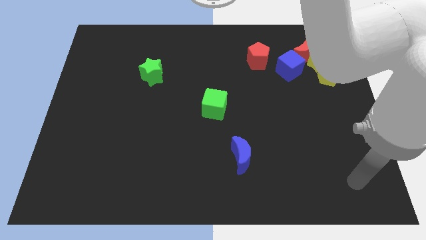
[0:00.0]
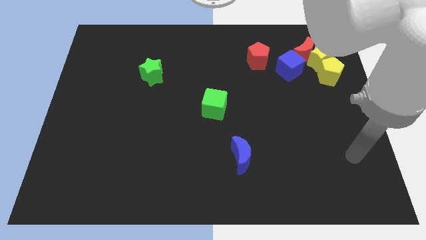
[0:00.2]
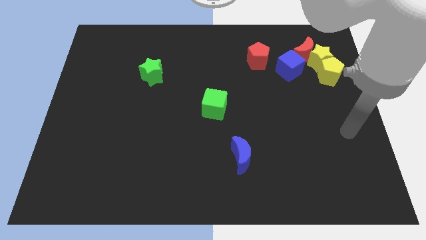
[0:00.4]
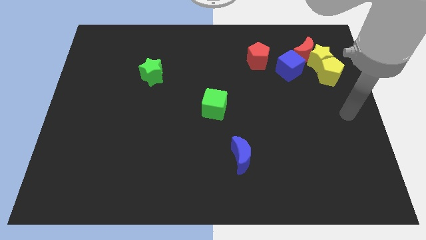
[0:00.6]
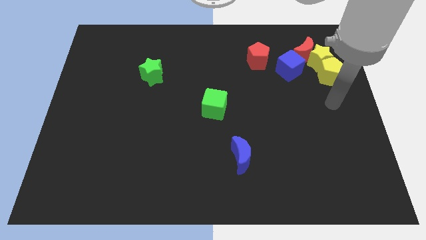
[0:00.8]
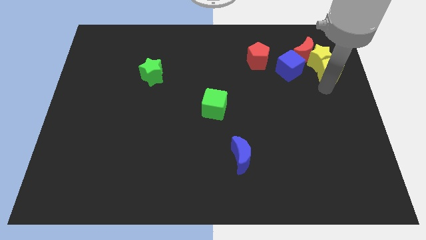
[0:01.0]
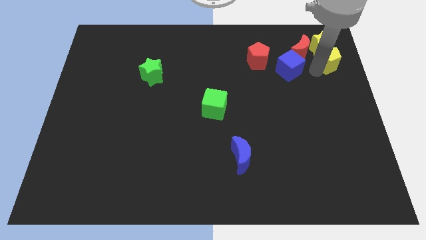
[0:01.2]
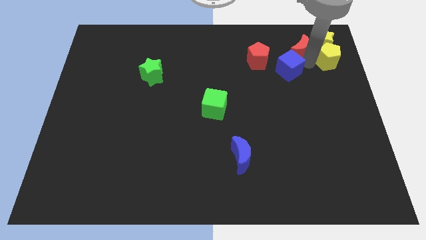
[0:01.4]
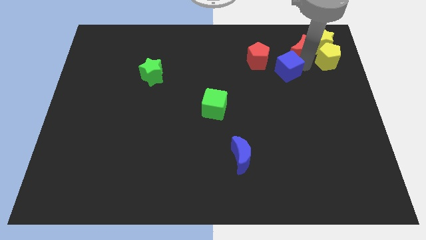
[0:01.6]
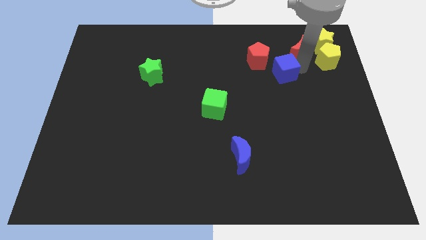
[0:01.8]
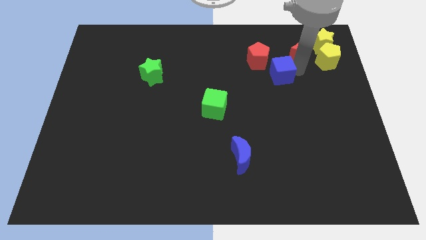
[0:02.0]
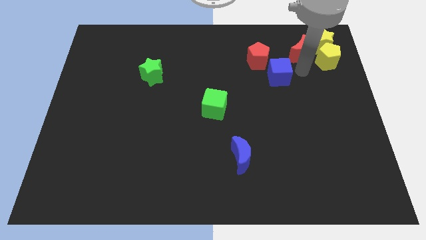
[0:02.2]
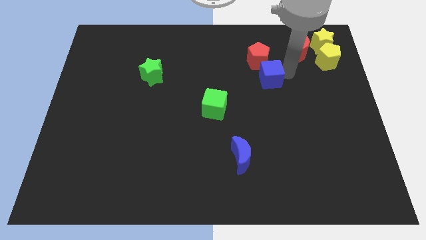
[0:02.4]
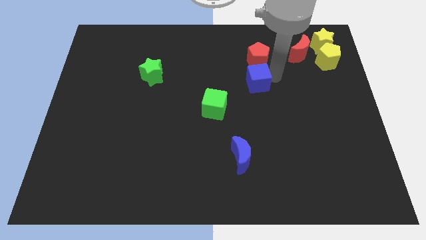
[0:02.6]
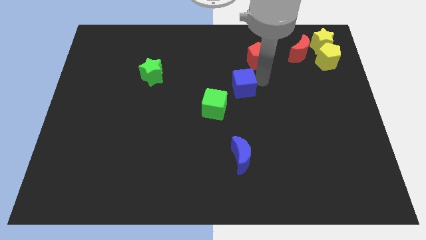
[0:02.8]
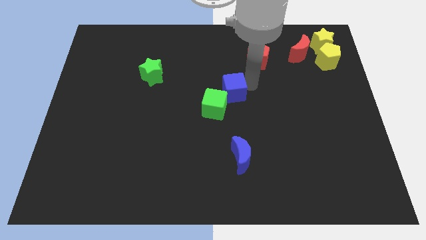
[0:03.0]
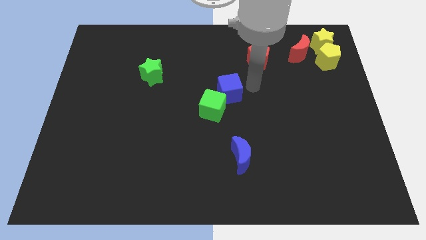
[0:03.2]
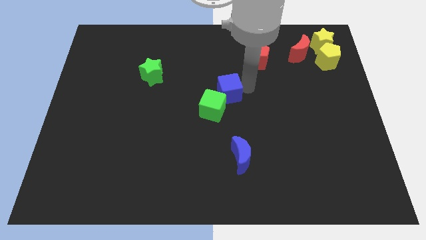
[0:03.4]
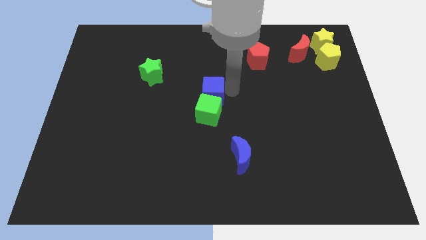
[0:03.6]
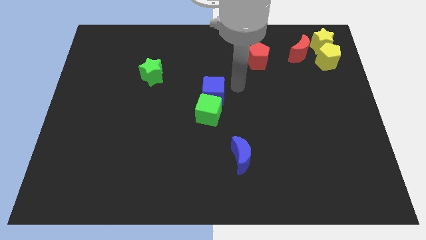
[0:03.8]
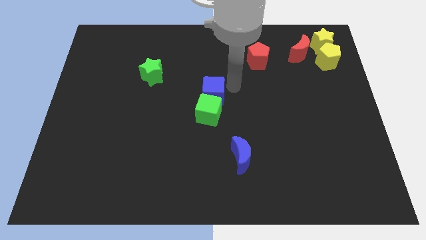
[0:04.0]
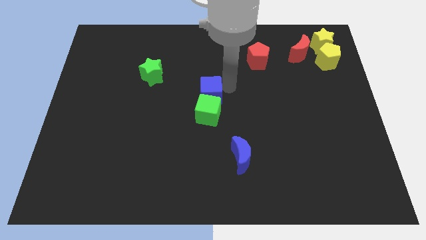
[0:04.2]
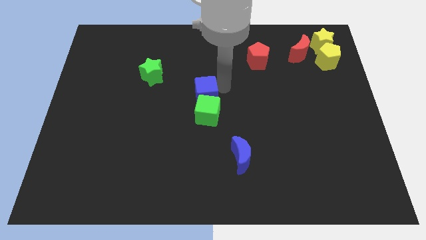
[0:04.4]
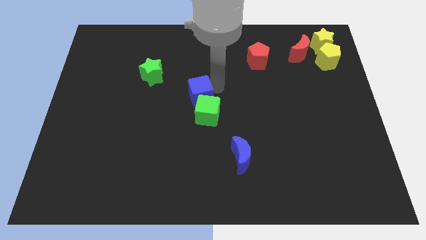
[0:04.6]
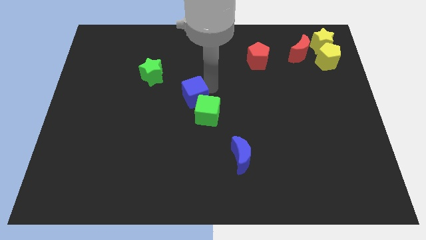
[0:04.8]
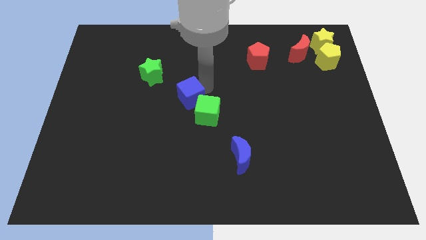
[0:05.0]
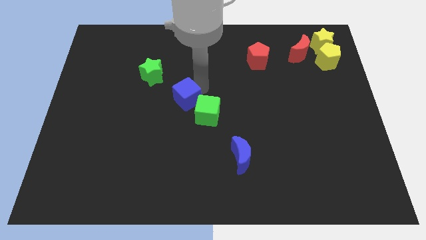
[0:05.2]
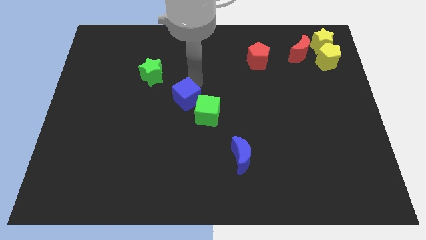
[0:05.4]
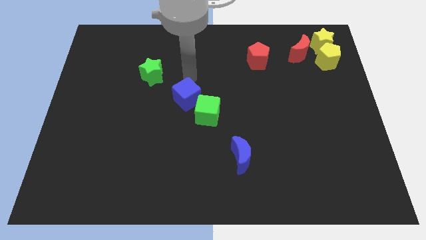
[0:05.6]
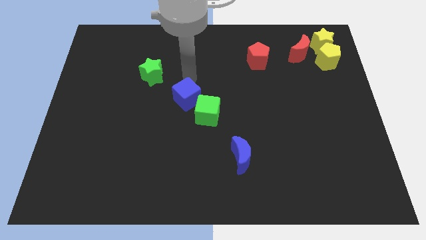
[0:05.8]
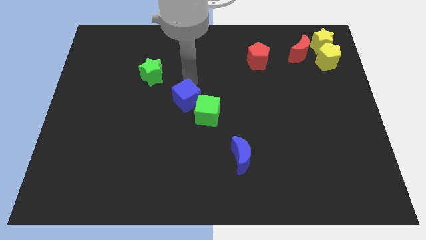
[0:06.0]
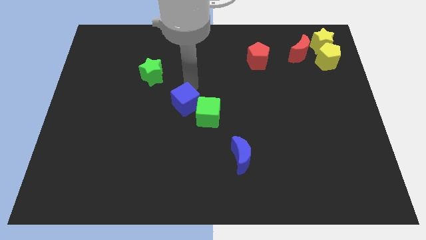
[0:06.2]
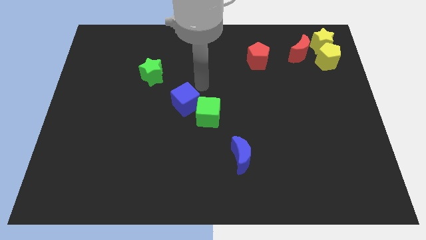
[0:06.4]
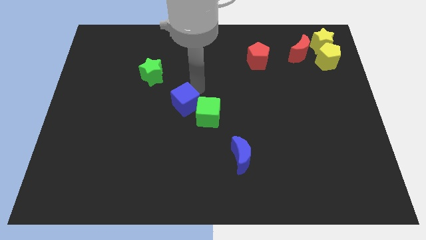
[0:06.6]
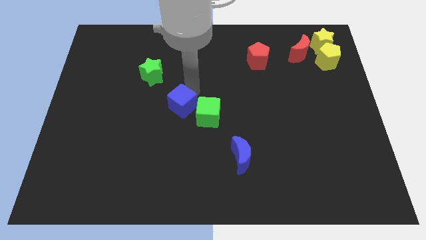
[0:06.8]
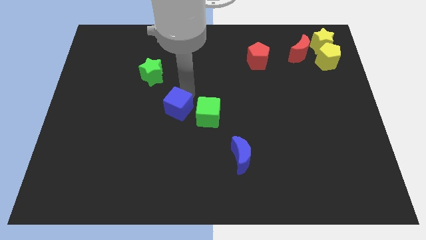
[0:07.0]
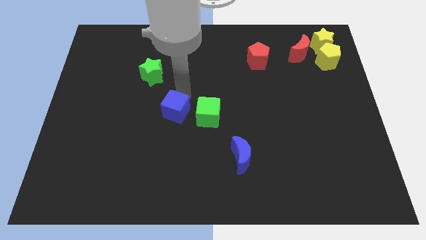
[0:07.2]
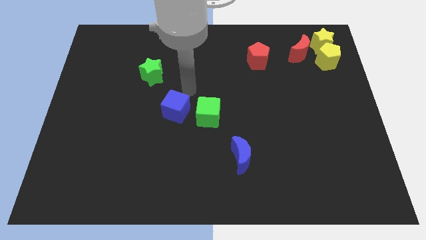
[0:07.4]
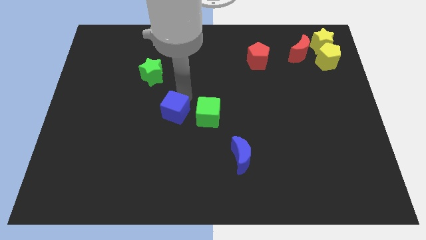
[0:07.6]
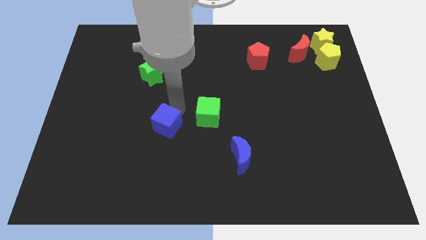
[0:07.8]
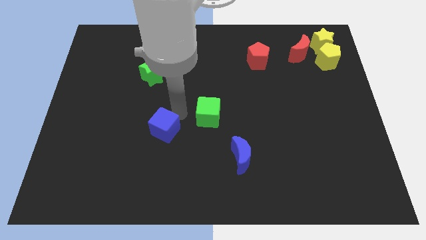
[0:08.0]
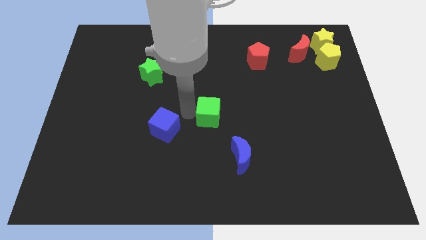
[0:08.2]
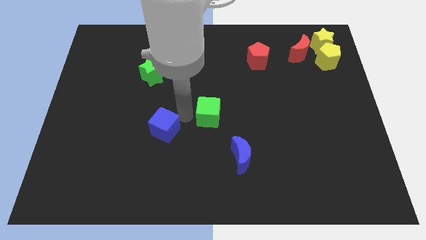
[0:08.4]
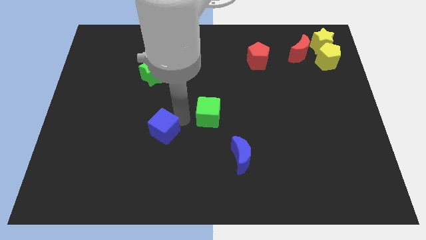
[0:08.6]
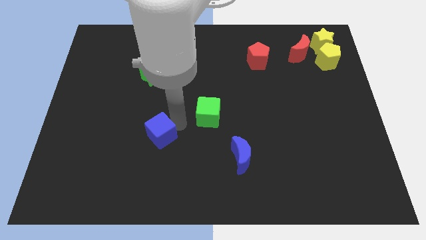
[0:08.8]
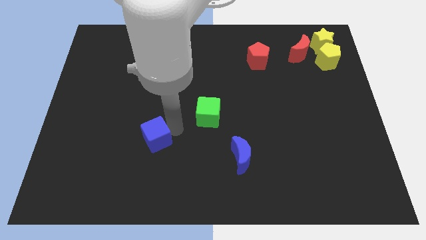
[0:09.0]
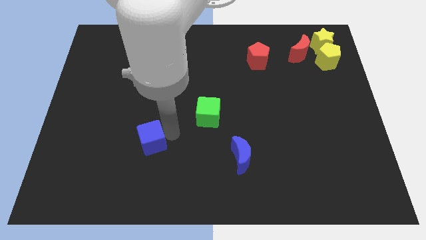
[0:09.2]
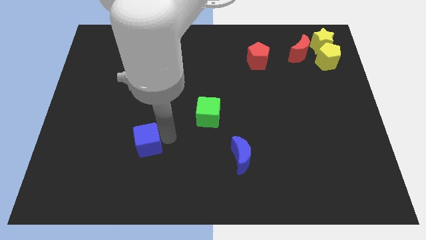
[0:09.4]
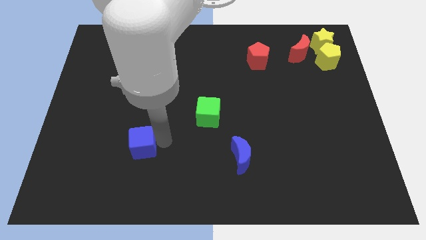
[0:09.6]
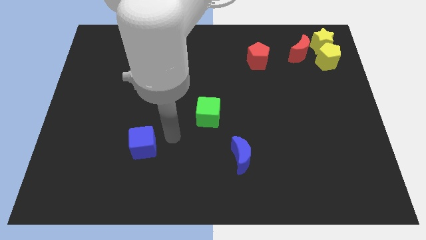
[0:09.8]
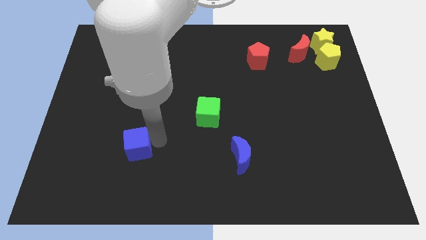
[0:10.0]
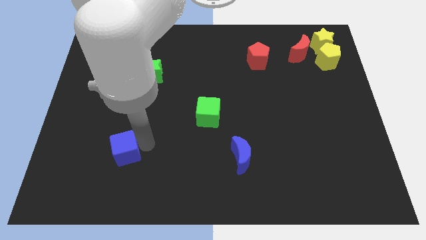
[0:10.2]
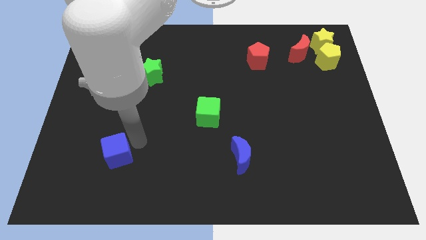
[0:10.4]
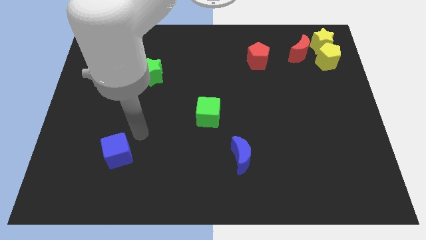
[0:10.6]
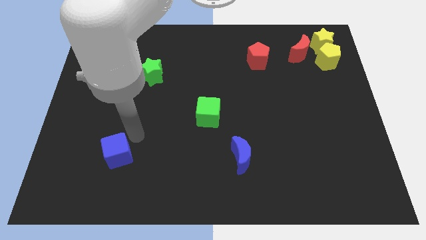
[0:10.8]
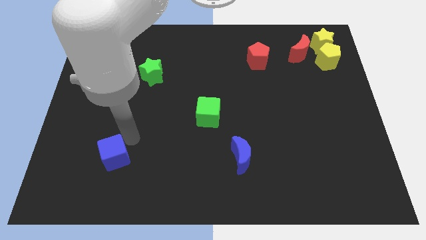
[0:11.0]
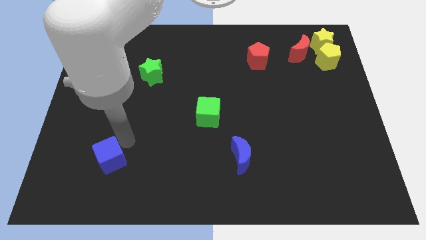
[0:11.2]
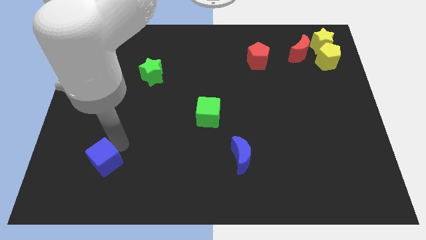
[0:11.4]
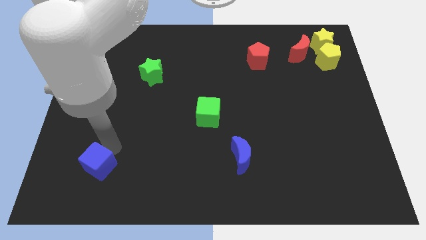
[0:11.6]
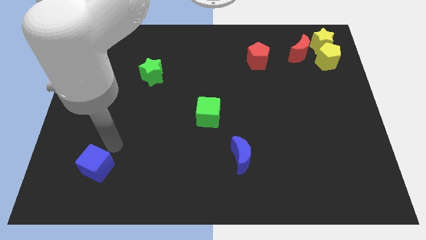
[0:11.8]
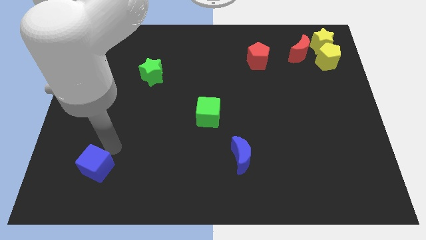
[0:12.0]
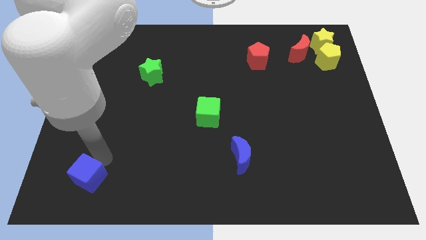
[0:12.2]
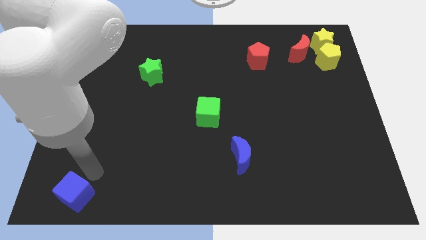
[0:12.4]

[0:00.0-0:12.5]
put the blue cube to the bottom left

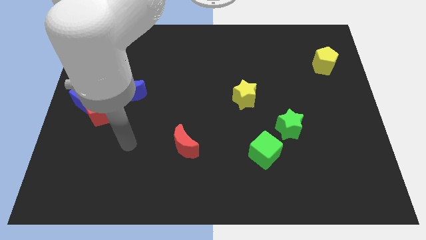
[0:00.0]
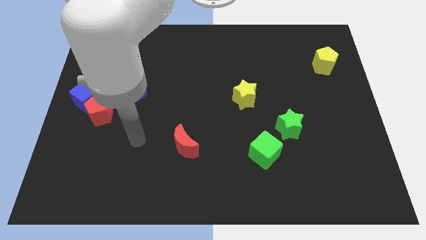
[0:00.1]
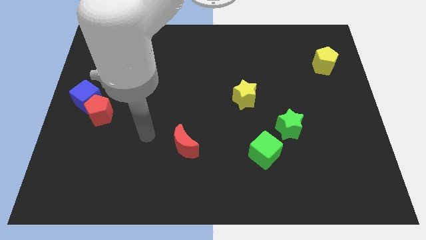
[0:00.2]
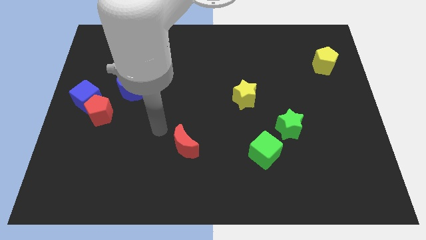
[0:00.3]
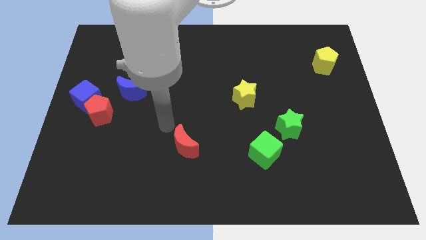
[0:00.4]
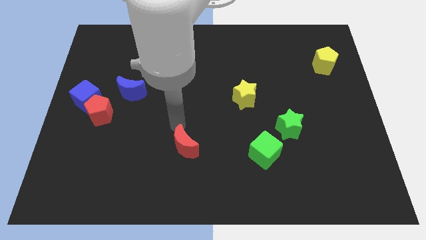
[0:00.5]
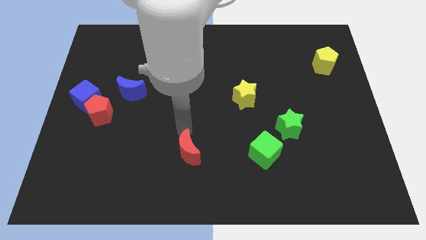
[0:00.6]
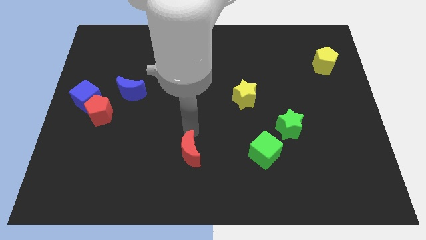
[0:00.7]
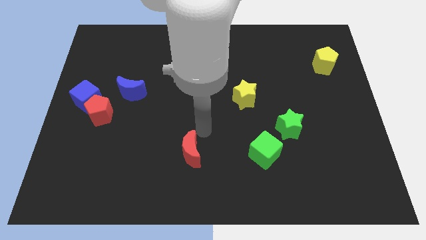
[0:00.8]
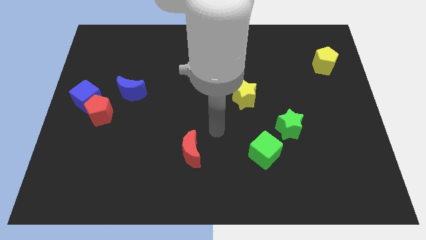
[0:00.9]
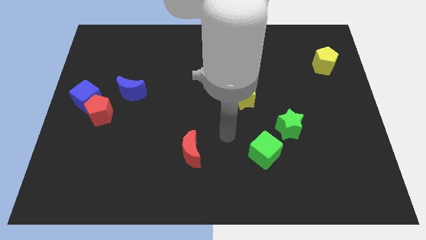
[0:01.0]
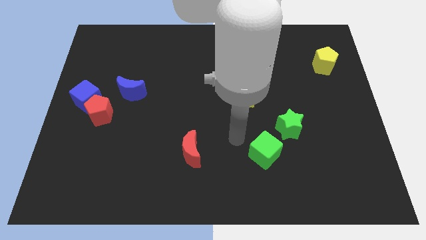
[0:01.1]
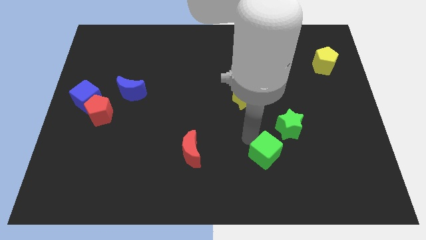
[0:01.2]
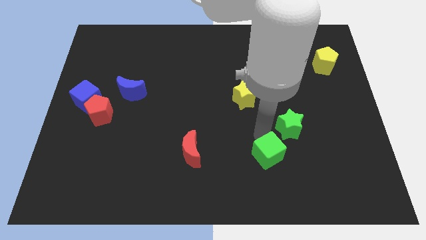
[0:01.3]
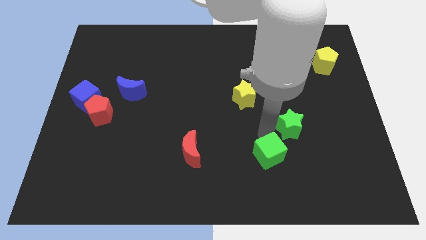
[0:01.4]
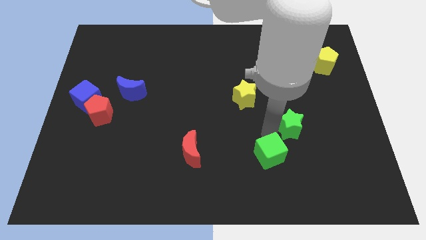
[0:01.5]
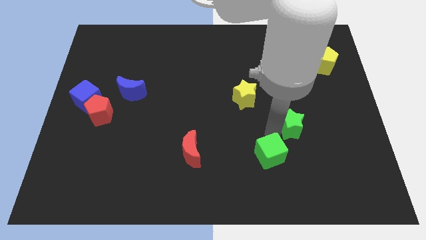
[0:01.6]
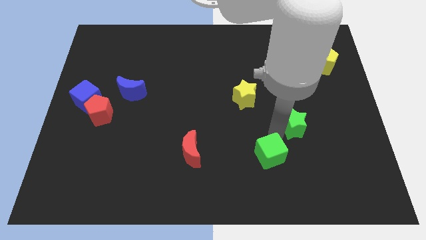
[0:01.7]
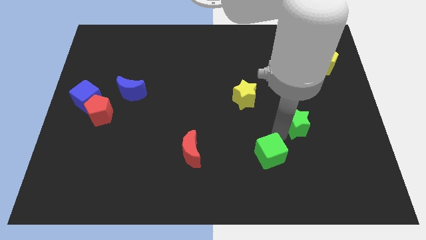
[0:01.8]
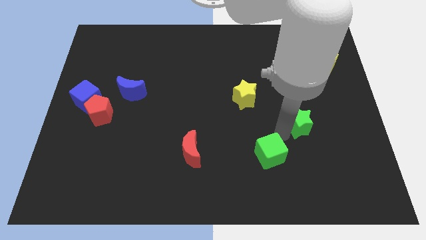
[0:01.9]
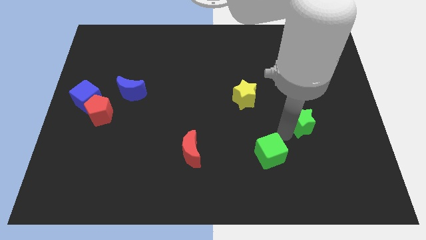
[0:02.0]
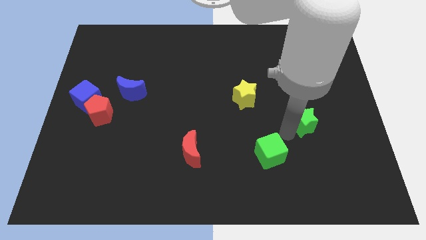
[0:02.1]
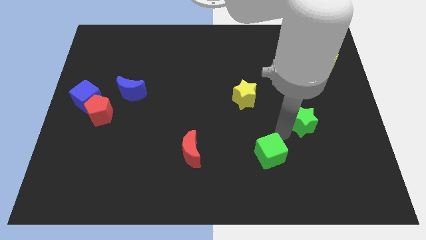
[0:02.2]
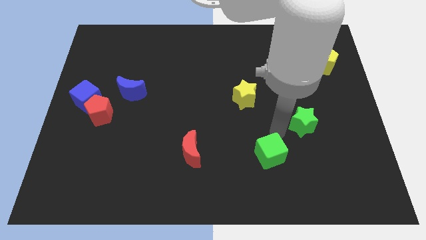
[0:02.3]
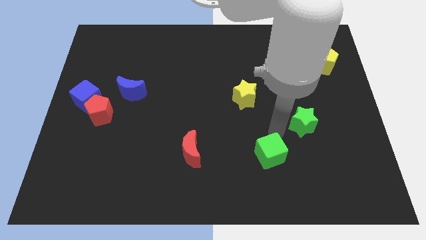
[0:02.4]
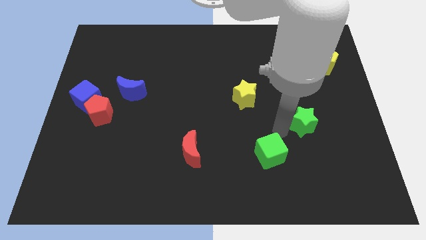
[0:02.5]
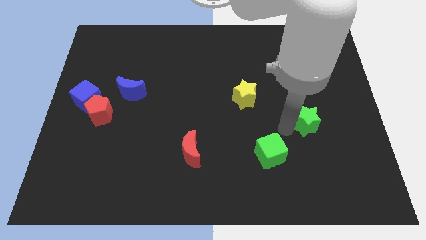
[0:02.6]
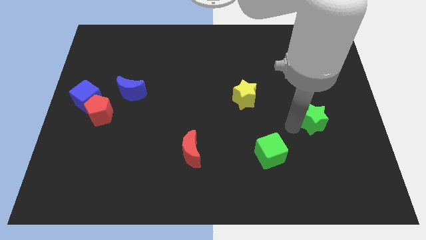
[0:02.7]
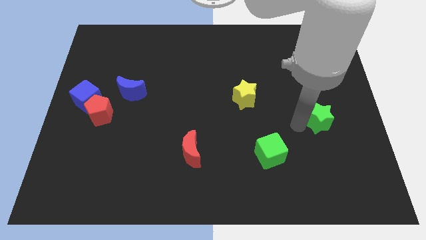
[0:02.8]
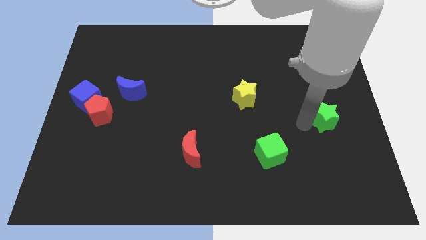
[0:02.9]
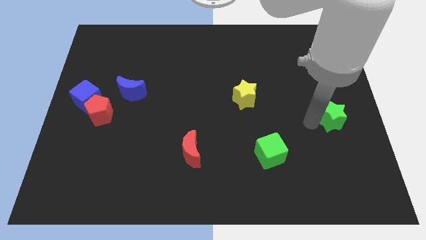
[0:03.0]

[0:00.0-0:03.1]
put the green star to the right side
